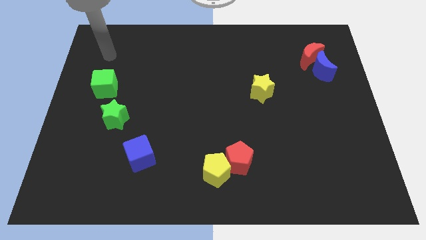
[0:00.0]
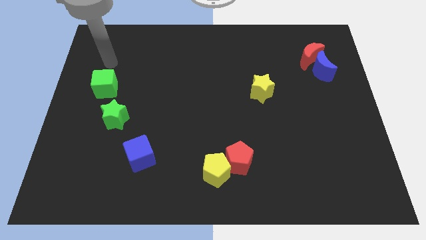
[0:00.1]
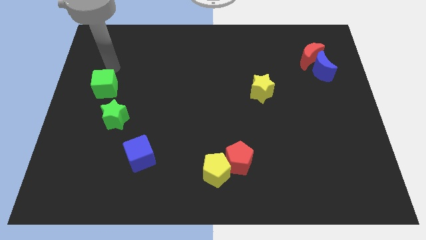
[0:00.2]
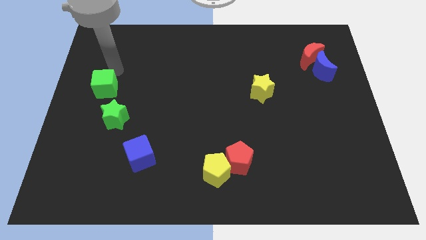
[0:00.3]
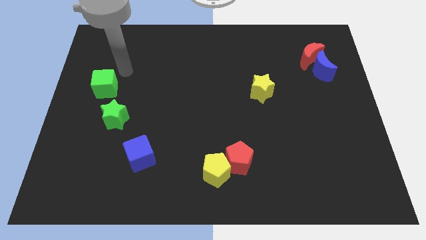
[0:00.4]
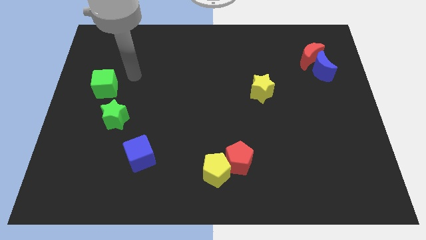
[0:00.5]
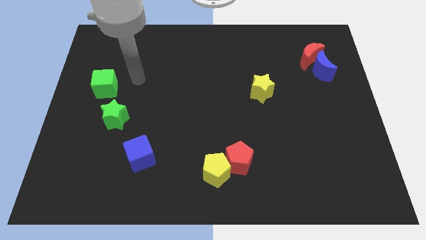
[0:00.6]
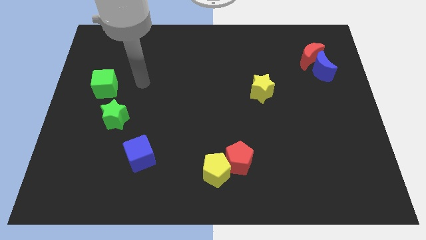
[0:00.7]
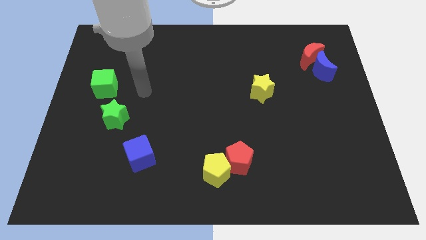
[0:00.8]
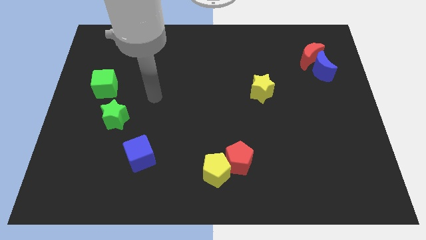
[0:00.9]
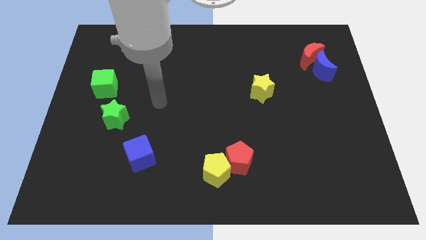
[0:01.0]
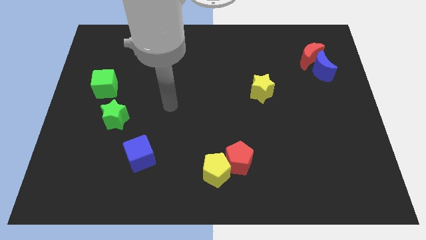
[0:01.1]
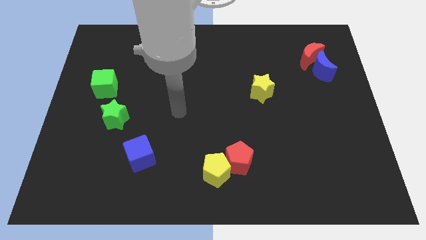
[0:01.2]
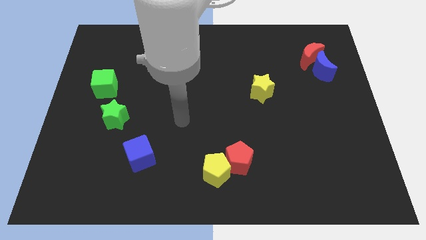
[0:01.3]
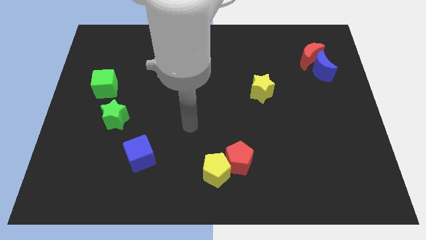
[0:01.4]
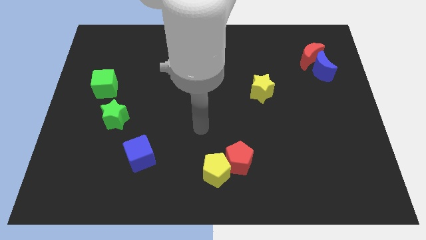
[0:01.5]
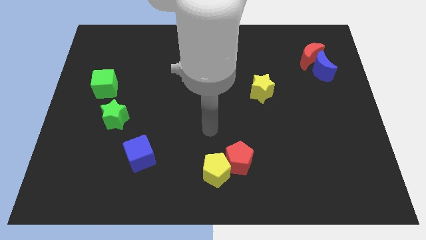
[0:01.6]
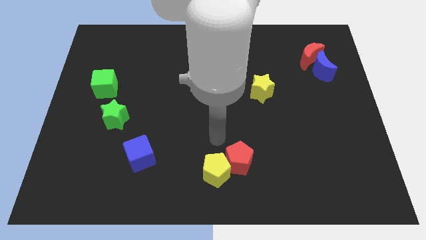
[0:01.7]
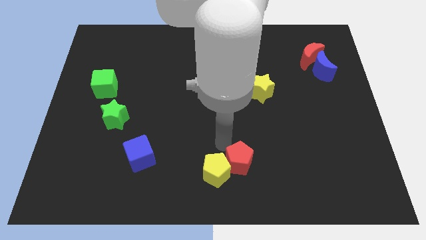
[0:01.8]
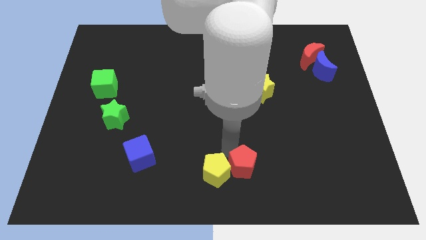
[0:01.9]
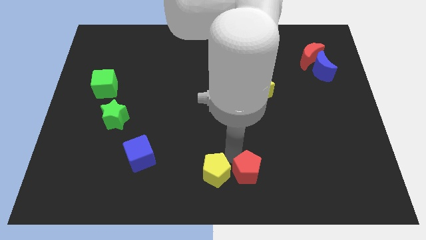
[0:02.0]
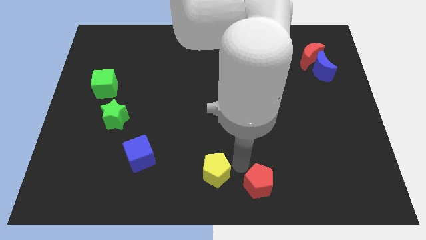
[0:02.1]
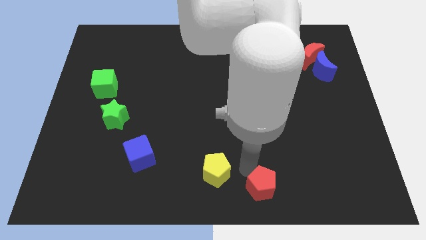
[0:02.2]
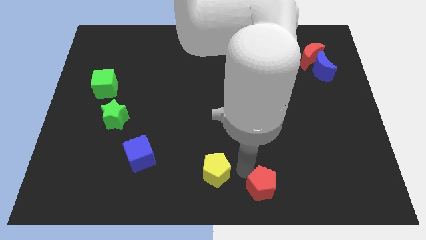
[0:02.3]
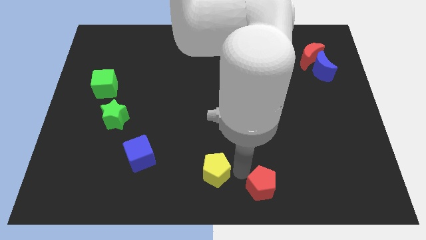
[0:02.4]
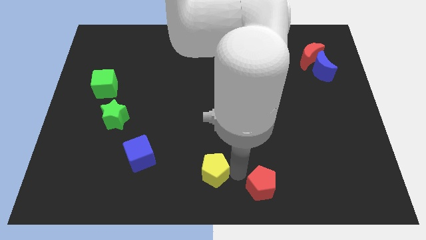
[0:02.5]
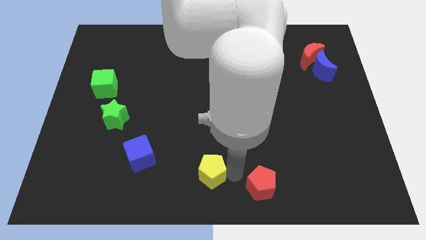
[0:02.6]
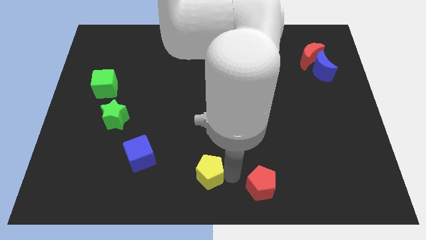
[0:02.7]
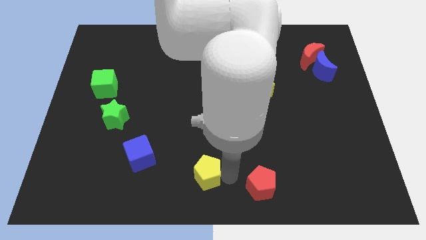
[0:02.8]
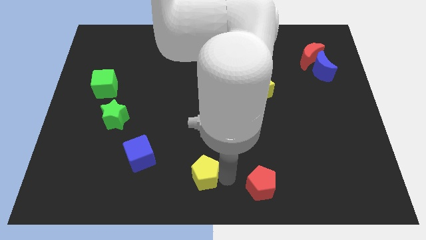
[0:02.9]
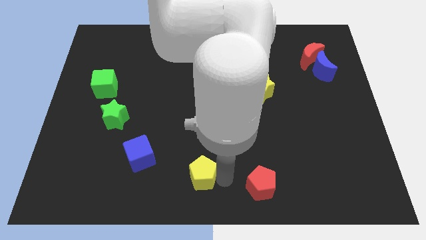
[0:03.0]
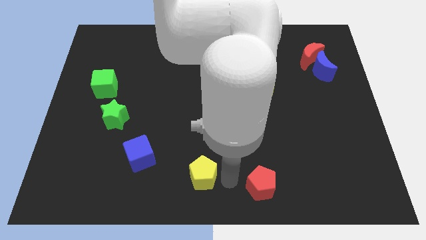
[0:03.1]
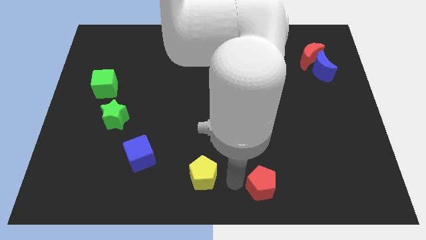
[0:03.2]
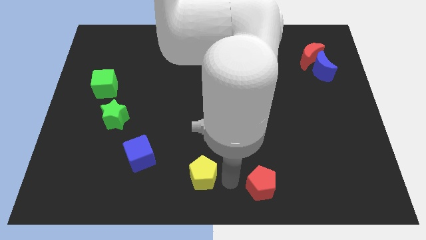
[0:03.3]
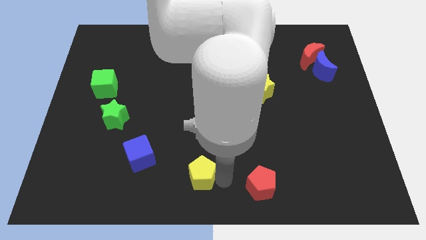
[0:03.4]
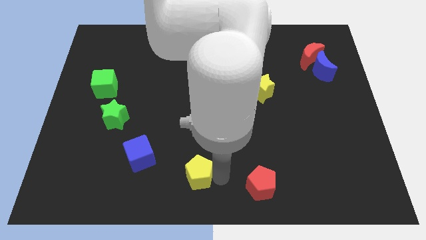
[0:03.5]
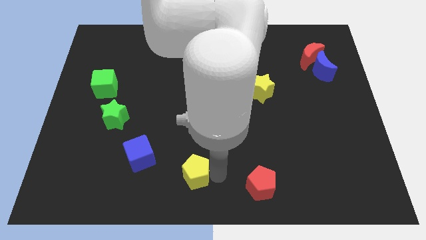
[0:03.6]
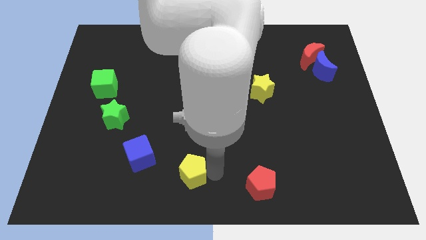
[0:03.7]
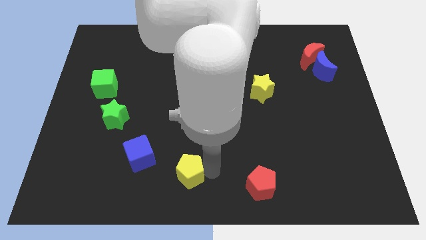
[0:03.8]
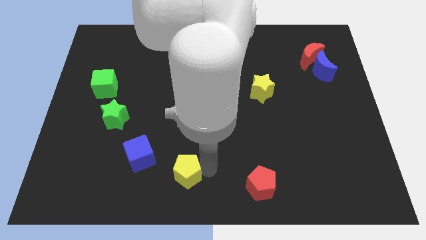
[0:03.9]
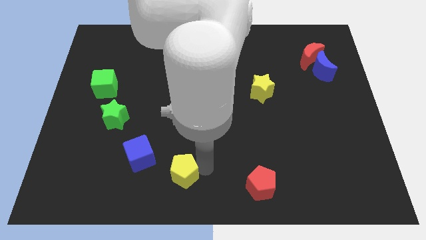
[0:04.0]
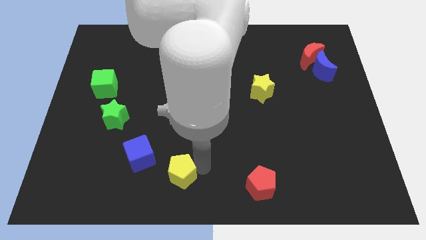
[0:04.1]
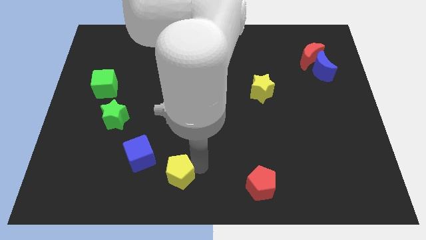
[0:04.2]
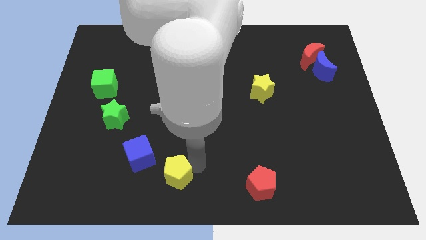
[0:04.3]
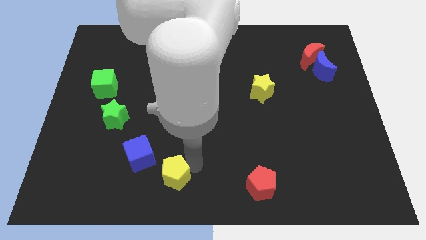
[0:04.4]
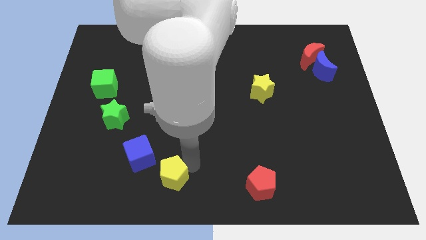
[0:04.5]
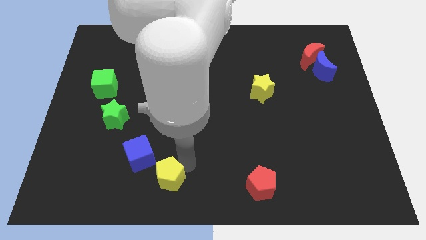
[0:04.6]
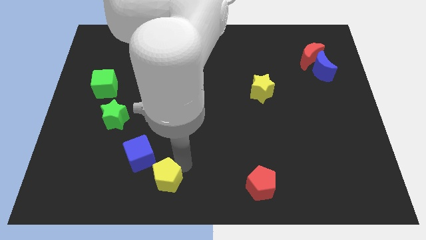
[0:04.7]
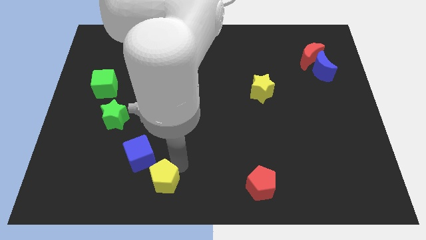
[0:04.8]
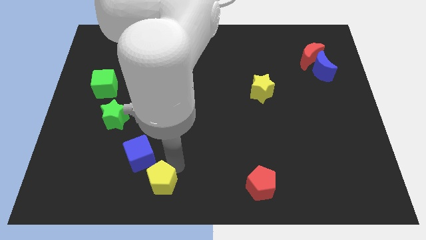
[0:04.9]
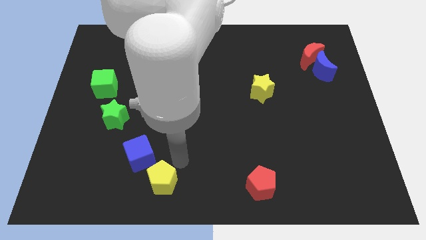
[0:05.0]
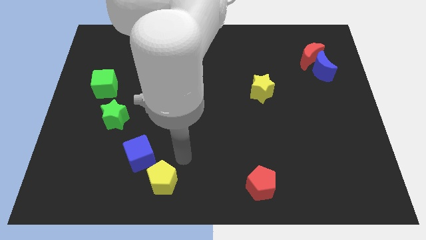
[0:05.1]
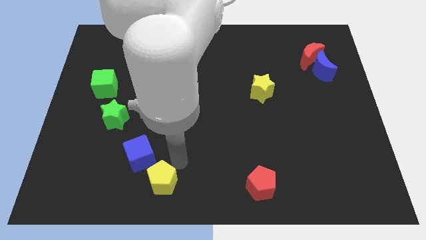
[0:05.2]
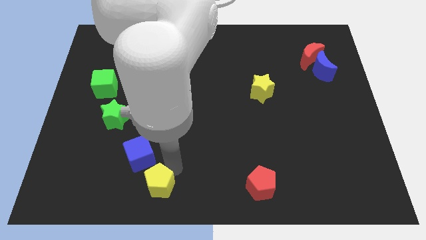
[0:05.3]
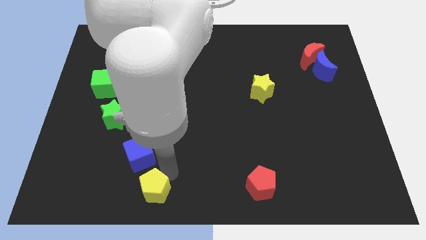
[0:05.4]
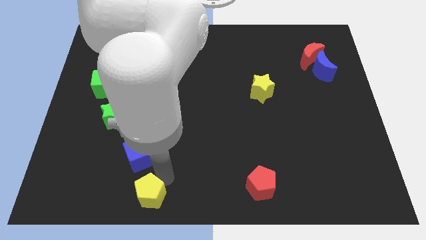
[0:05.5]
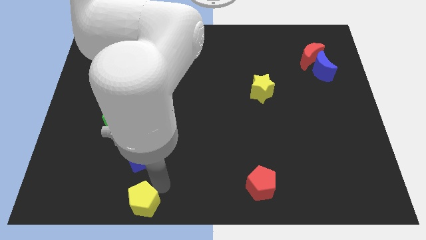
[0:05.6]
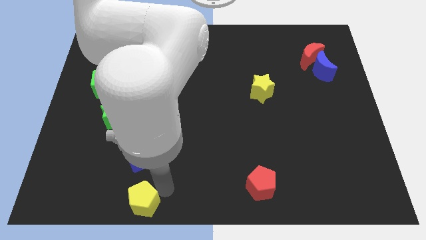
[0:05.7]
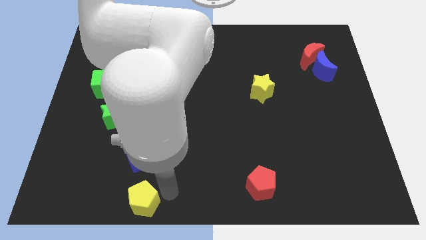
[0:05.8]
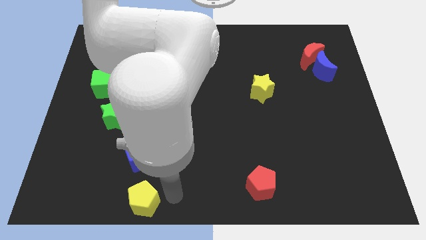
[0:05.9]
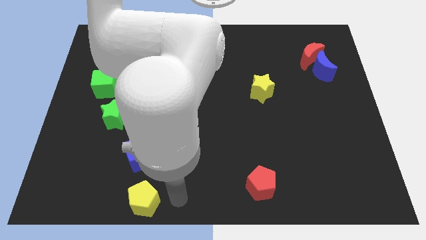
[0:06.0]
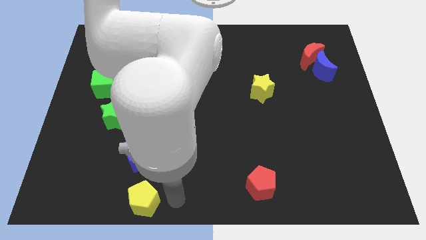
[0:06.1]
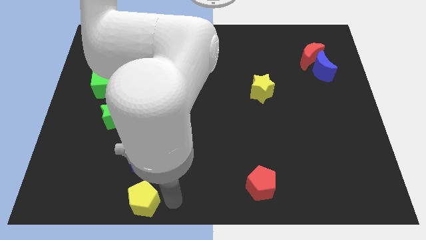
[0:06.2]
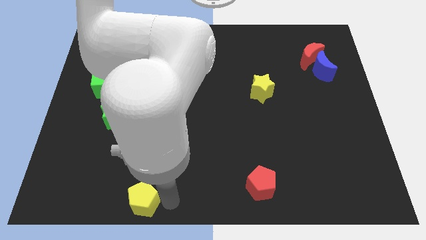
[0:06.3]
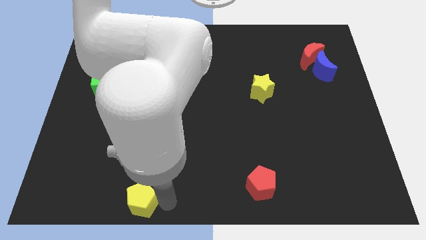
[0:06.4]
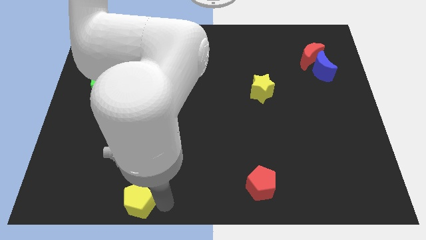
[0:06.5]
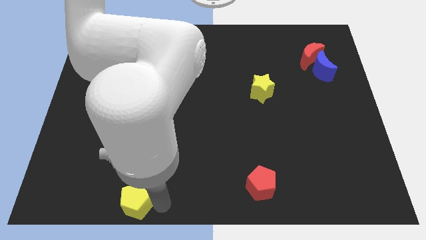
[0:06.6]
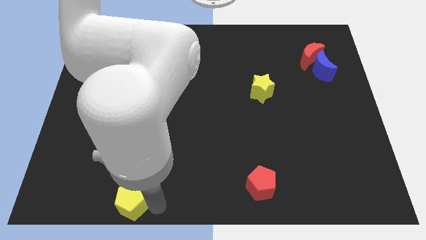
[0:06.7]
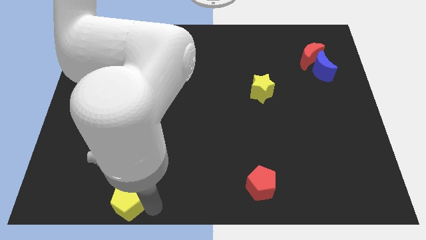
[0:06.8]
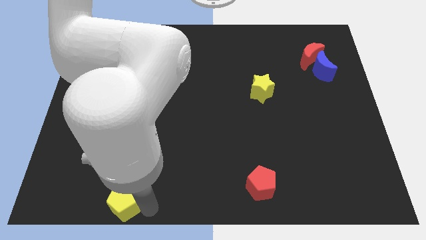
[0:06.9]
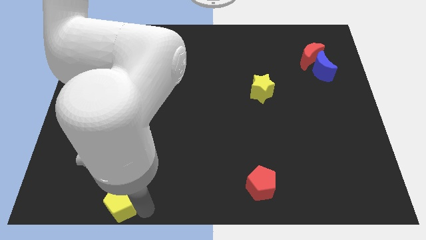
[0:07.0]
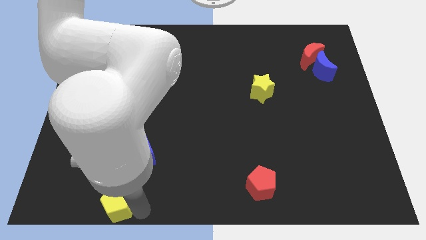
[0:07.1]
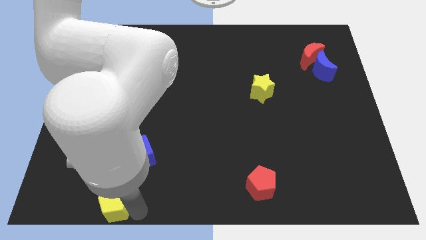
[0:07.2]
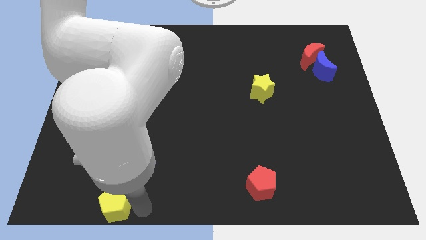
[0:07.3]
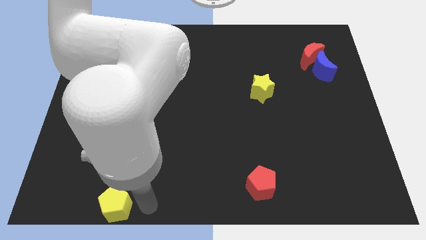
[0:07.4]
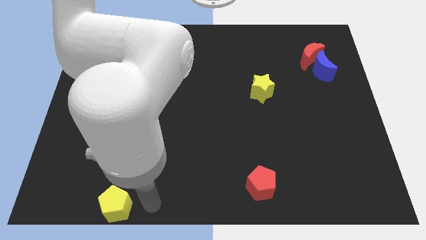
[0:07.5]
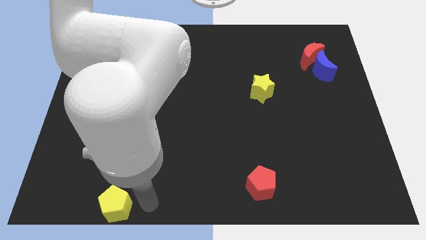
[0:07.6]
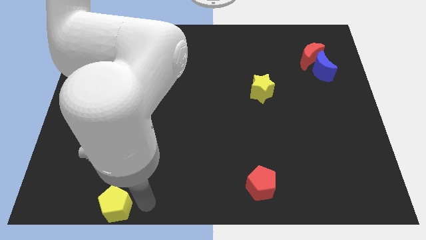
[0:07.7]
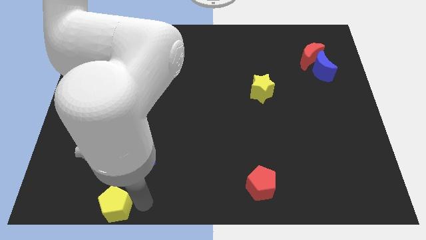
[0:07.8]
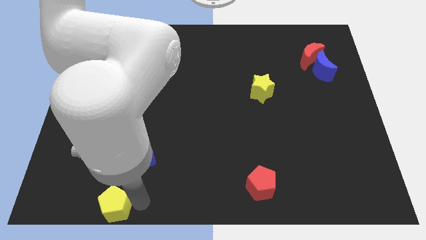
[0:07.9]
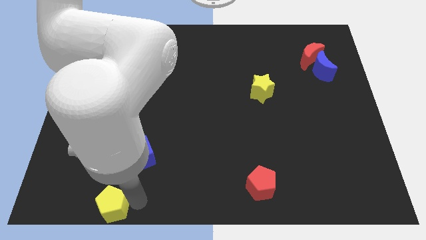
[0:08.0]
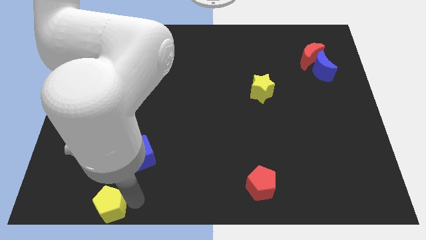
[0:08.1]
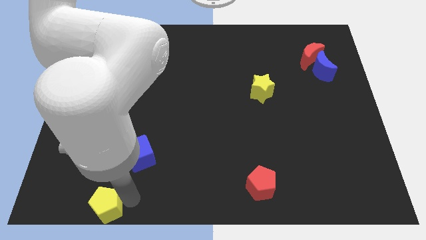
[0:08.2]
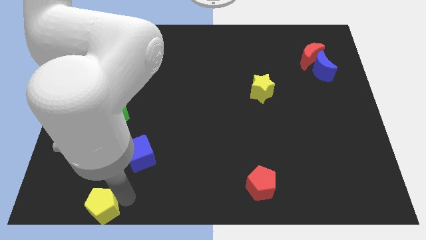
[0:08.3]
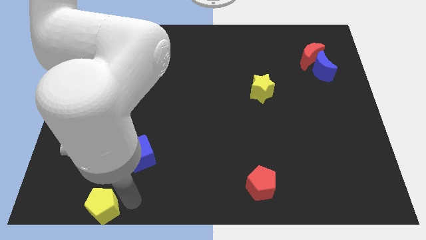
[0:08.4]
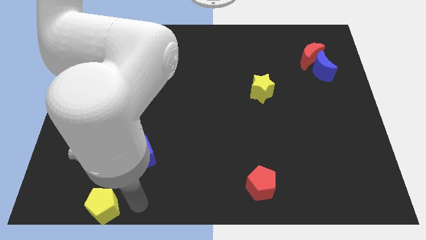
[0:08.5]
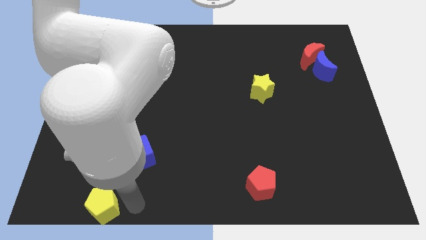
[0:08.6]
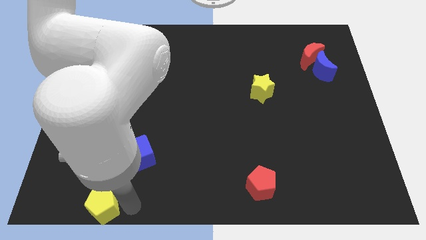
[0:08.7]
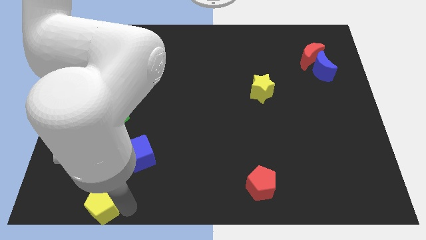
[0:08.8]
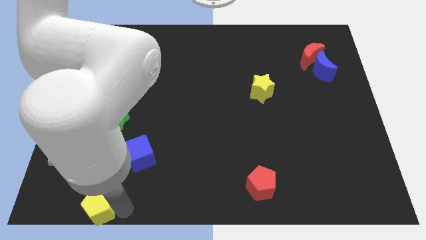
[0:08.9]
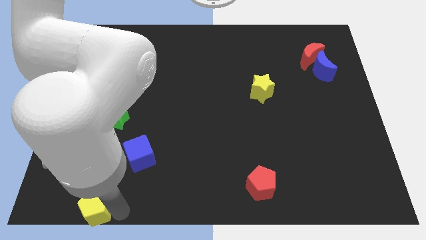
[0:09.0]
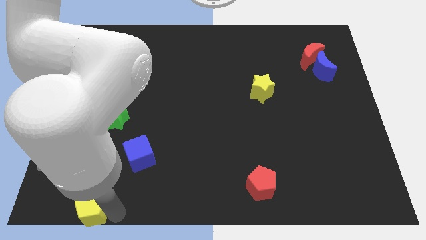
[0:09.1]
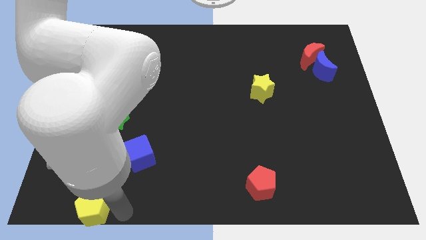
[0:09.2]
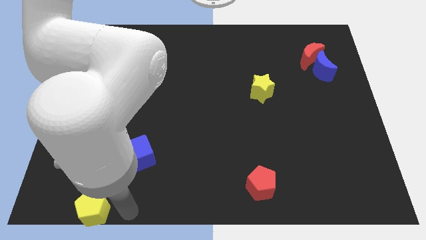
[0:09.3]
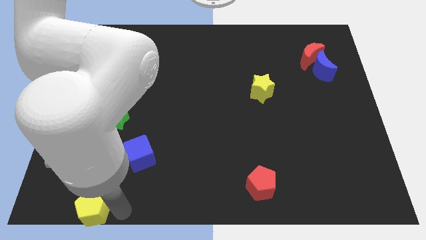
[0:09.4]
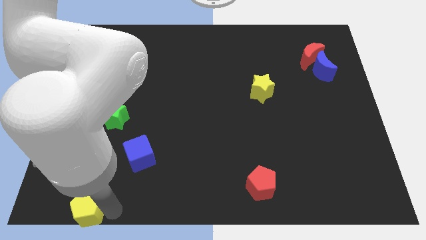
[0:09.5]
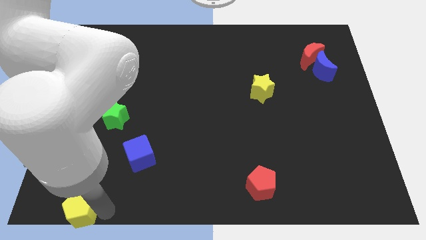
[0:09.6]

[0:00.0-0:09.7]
put the yellow pentagon to the lower left corner
